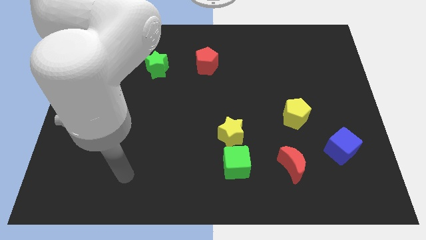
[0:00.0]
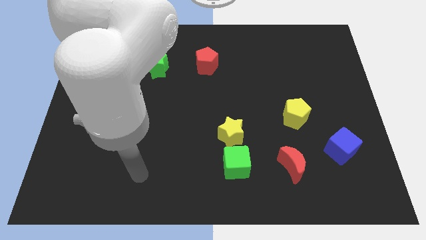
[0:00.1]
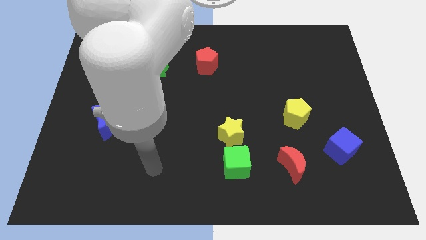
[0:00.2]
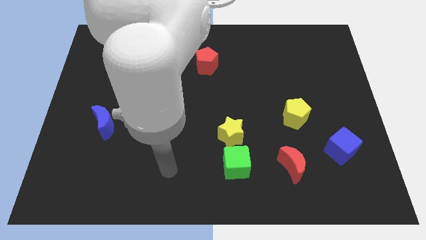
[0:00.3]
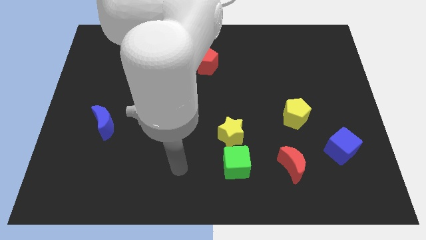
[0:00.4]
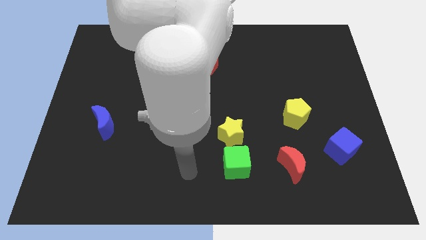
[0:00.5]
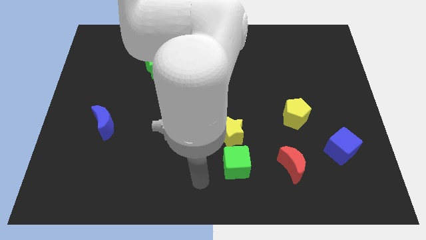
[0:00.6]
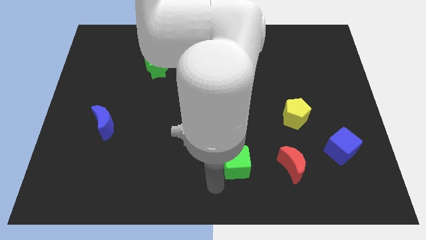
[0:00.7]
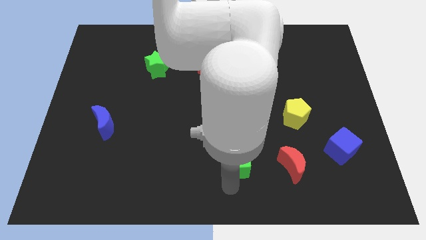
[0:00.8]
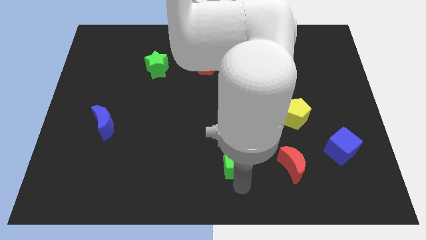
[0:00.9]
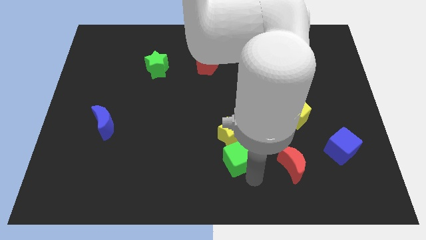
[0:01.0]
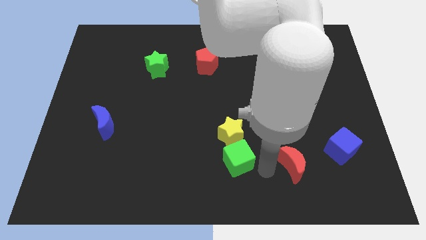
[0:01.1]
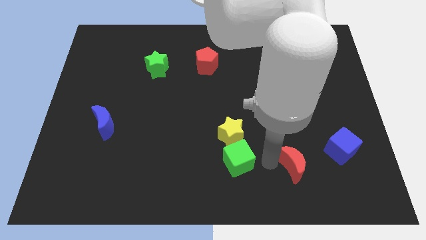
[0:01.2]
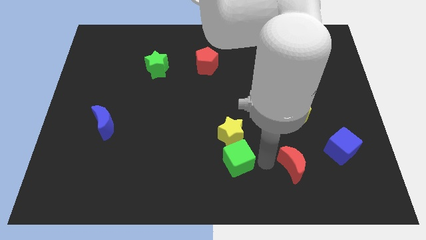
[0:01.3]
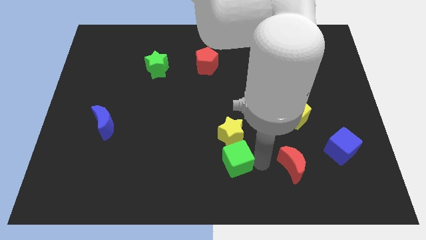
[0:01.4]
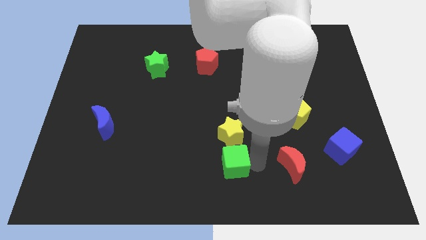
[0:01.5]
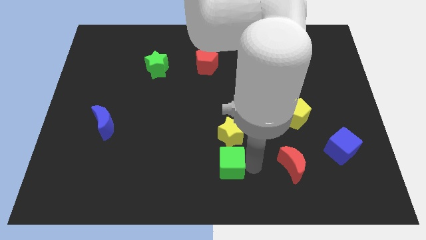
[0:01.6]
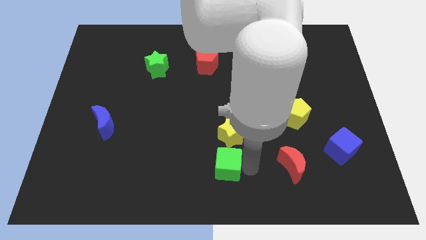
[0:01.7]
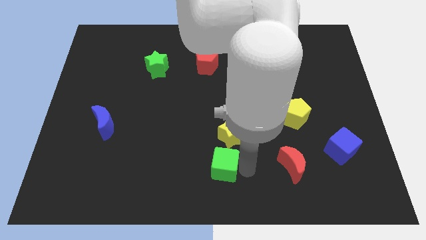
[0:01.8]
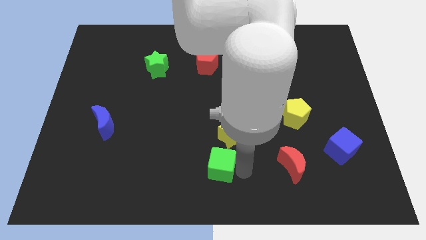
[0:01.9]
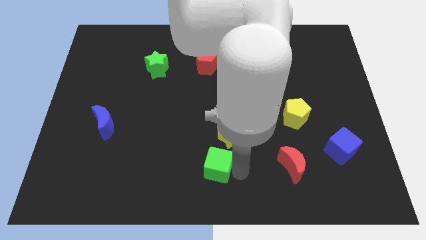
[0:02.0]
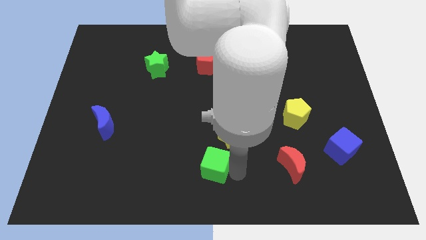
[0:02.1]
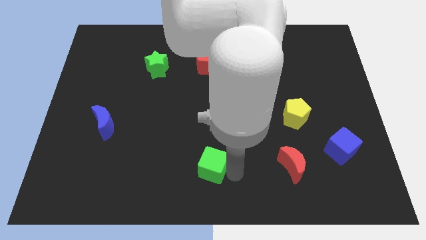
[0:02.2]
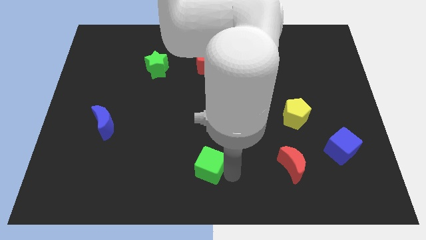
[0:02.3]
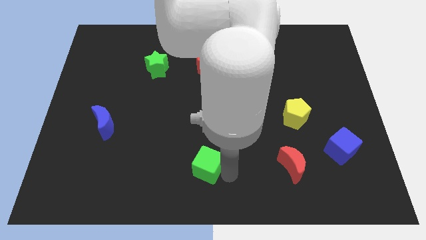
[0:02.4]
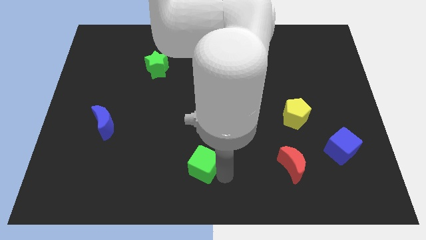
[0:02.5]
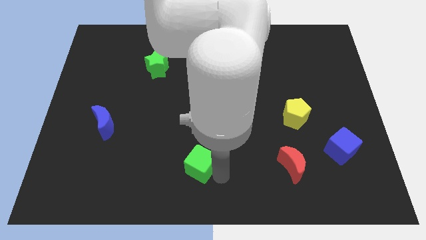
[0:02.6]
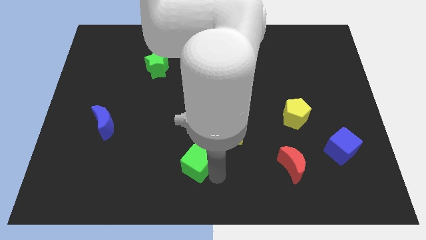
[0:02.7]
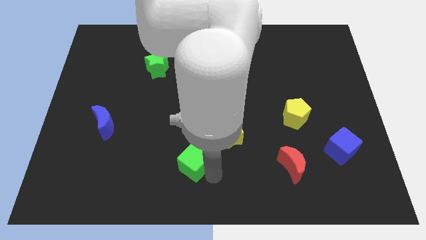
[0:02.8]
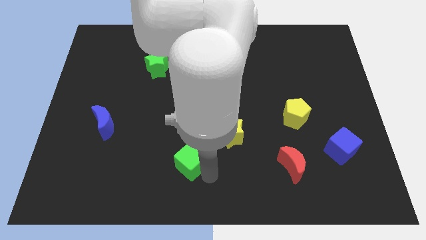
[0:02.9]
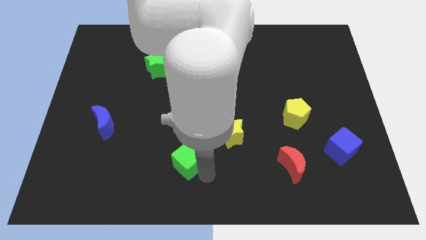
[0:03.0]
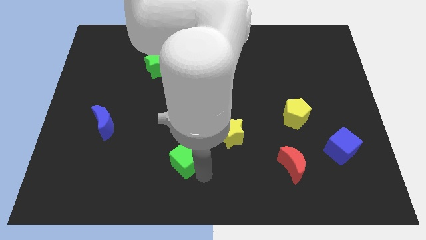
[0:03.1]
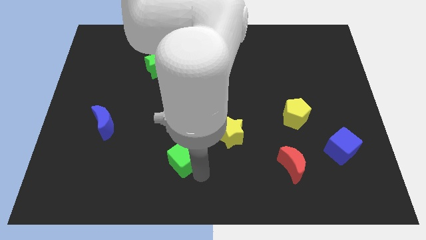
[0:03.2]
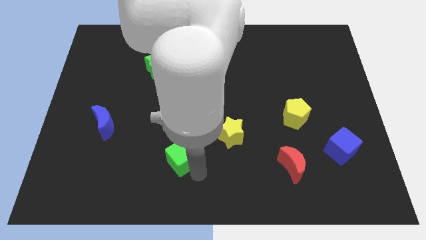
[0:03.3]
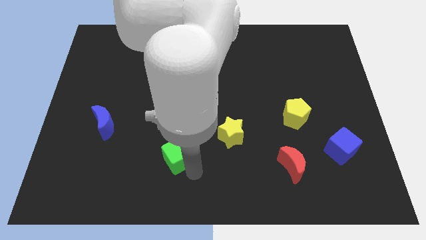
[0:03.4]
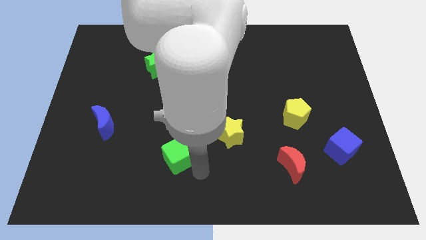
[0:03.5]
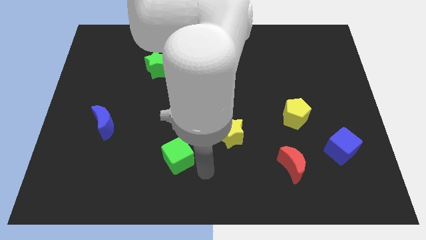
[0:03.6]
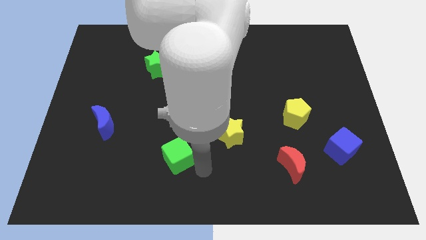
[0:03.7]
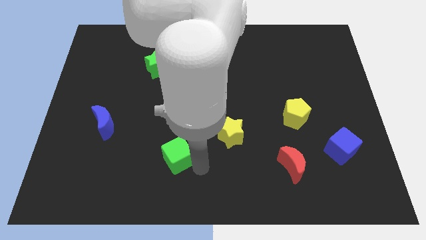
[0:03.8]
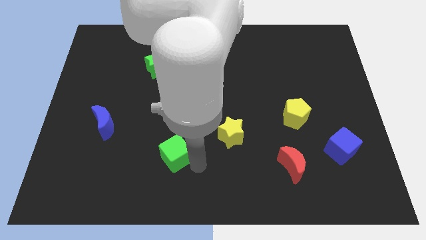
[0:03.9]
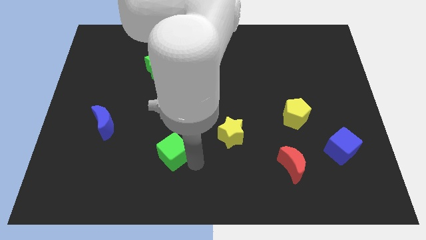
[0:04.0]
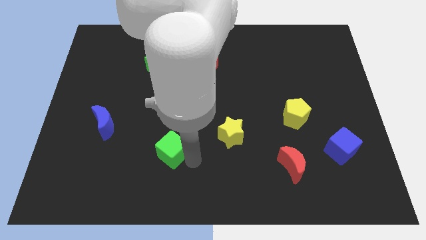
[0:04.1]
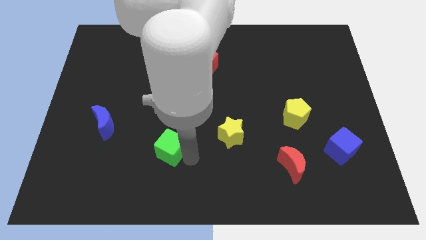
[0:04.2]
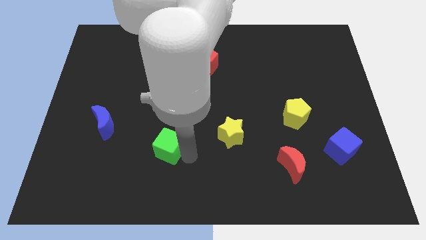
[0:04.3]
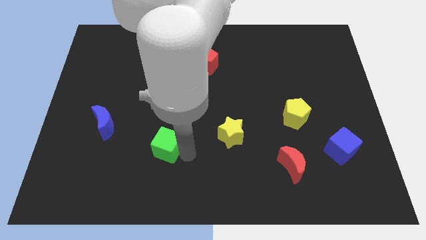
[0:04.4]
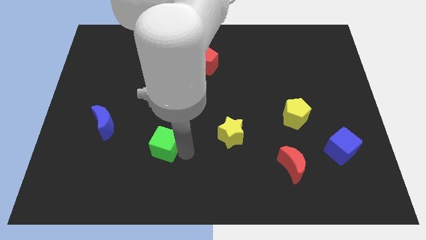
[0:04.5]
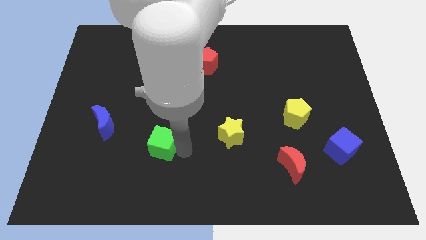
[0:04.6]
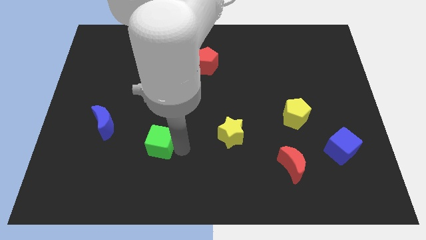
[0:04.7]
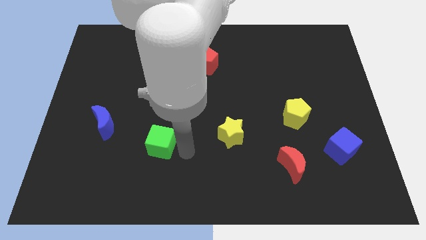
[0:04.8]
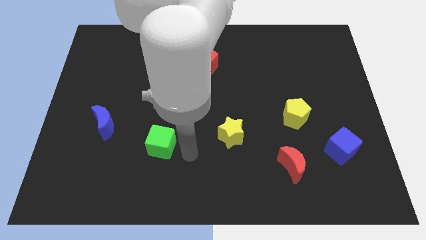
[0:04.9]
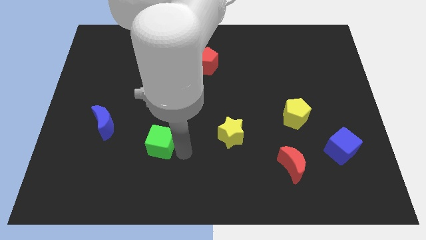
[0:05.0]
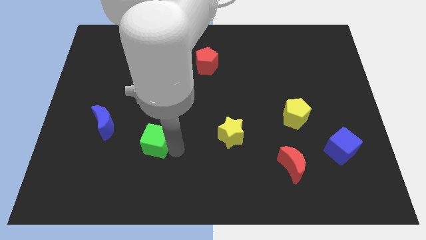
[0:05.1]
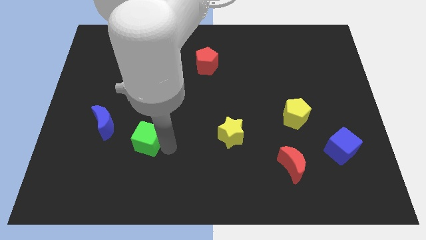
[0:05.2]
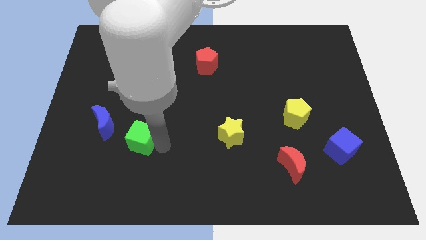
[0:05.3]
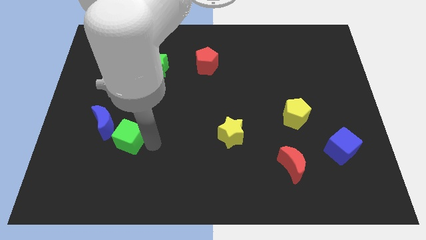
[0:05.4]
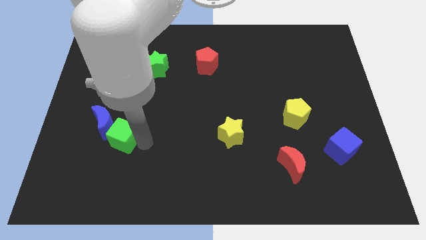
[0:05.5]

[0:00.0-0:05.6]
put the green cube close to the blue moon

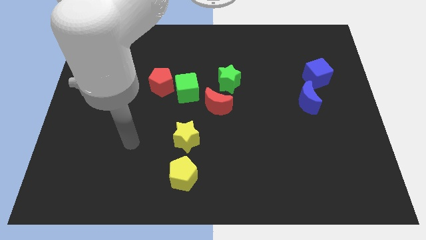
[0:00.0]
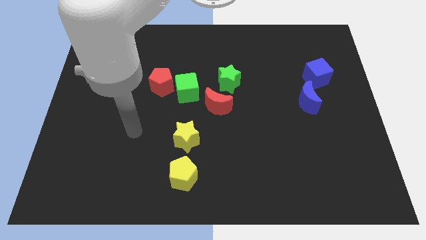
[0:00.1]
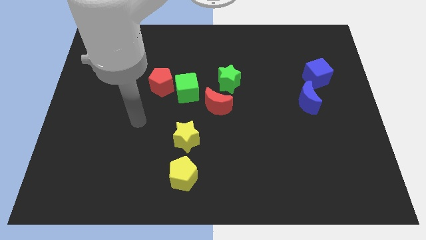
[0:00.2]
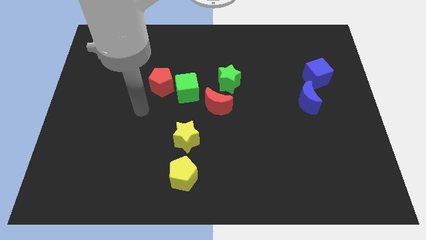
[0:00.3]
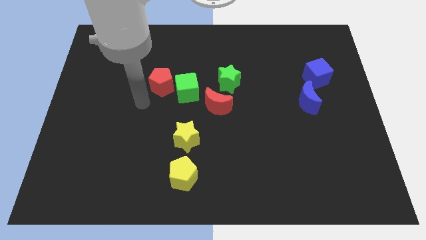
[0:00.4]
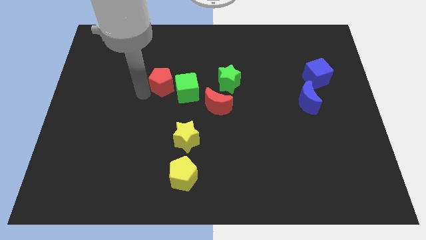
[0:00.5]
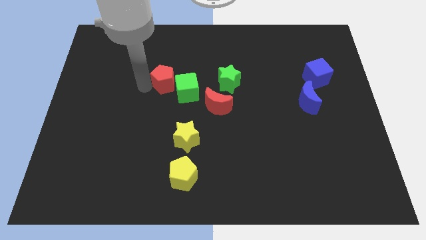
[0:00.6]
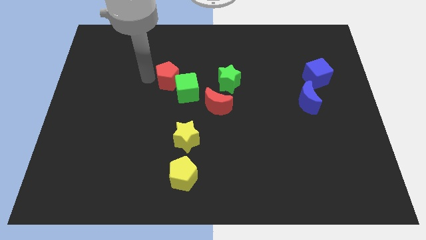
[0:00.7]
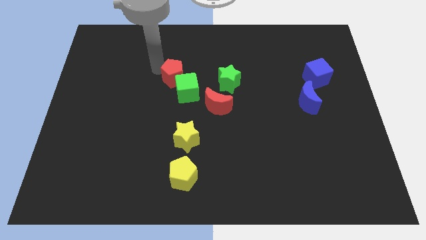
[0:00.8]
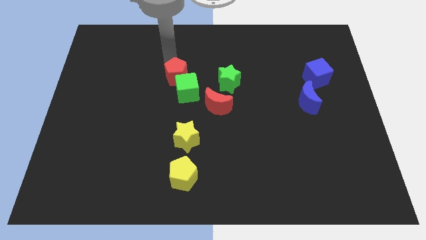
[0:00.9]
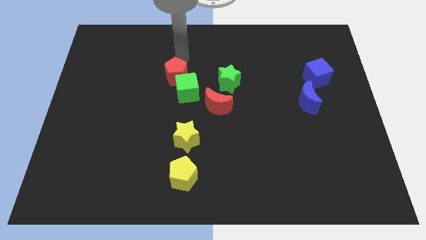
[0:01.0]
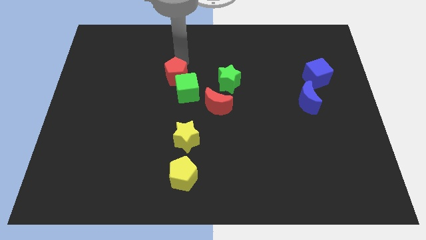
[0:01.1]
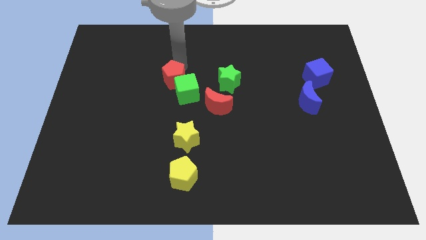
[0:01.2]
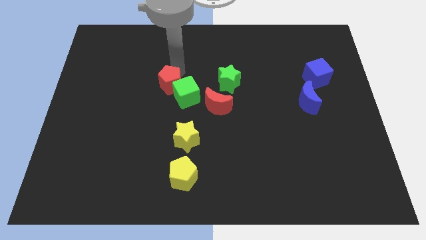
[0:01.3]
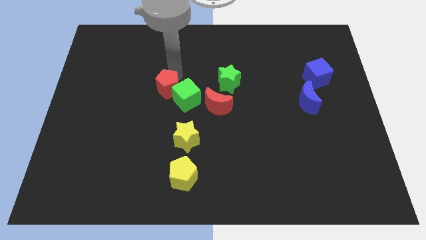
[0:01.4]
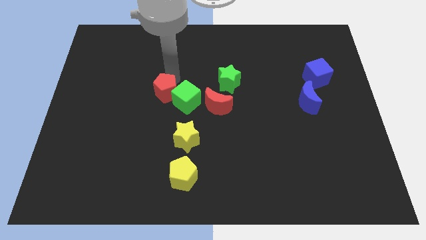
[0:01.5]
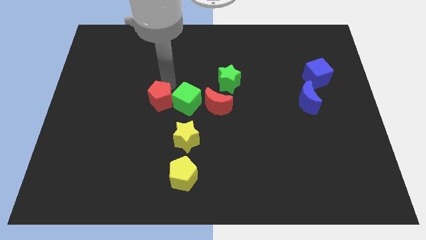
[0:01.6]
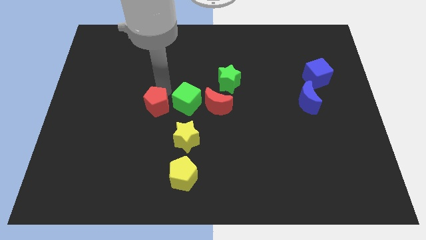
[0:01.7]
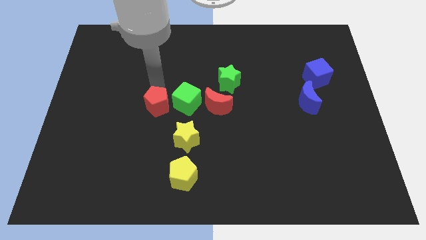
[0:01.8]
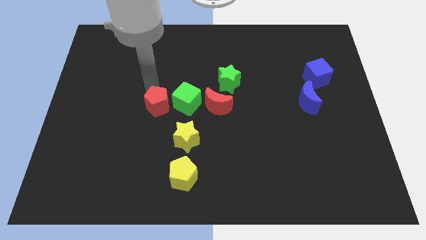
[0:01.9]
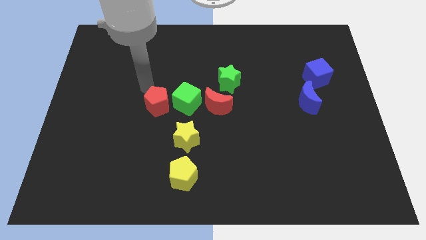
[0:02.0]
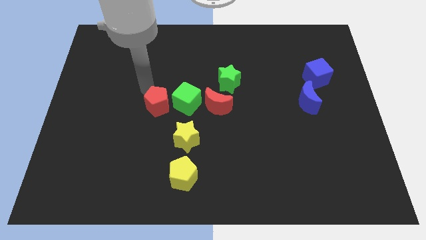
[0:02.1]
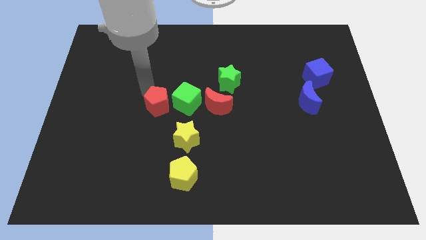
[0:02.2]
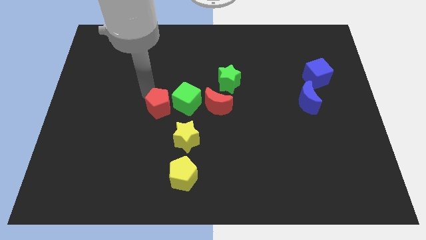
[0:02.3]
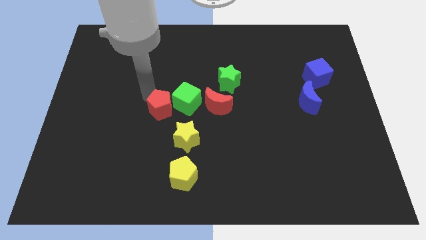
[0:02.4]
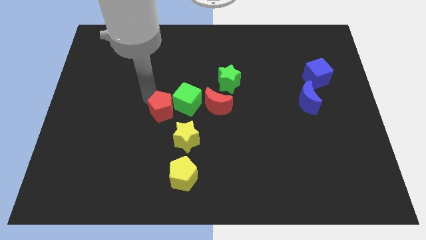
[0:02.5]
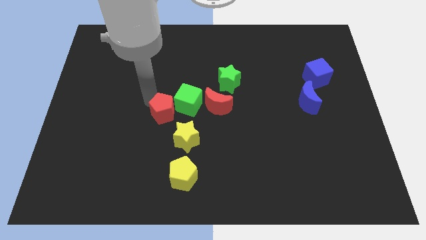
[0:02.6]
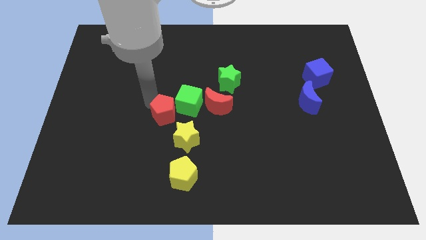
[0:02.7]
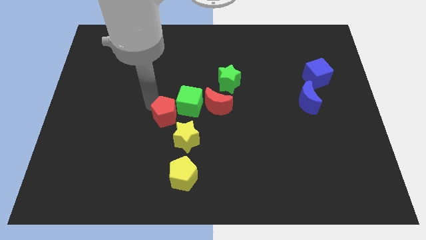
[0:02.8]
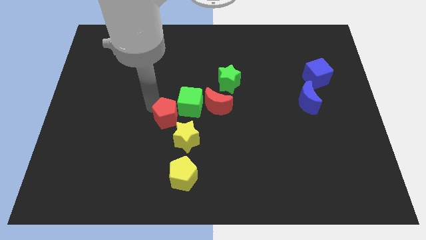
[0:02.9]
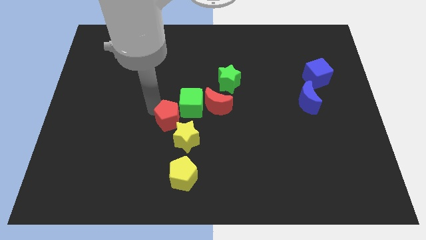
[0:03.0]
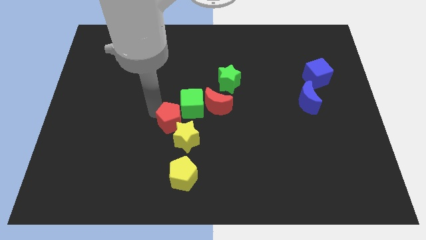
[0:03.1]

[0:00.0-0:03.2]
move the red pentagon towards the yellow star
